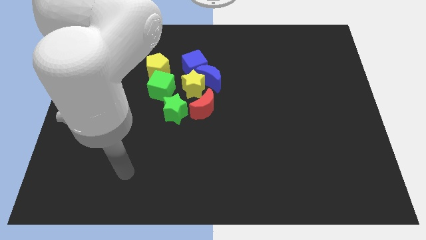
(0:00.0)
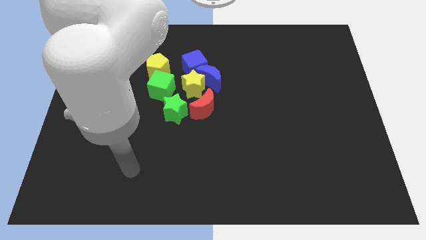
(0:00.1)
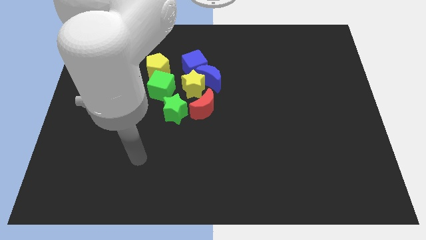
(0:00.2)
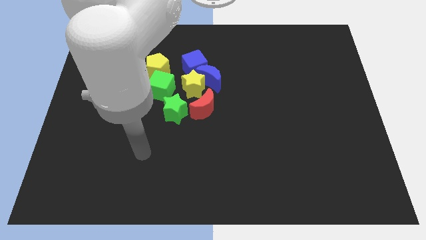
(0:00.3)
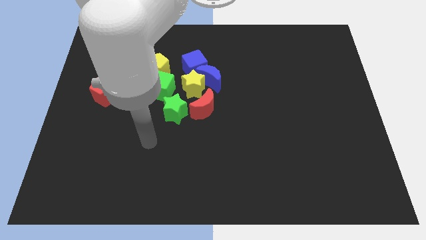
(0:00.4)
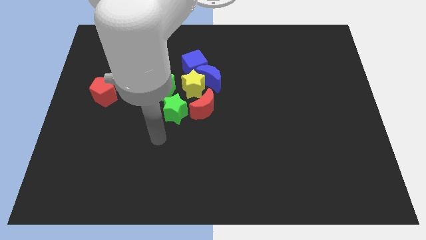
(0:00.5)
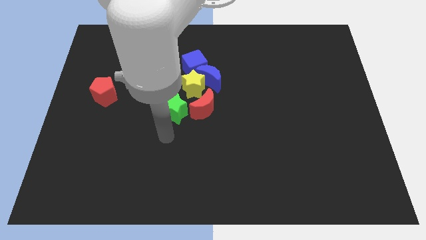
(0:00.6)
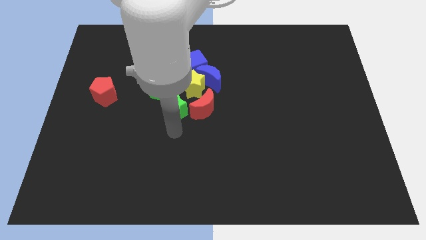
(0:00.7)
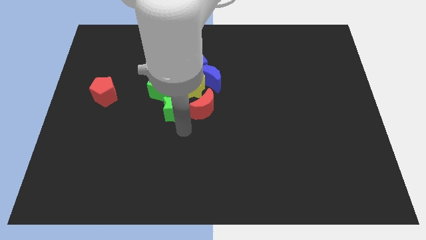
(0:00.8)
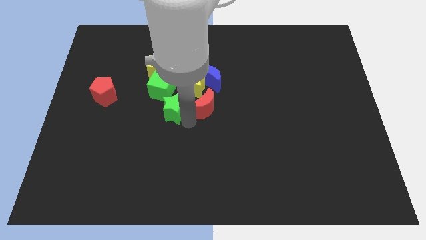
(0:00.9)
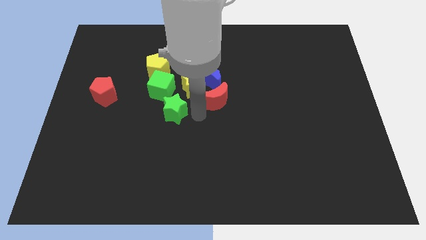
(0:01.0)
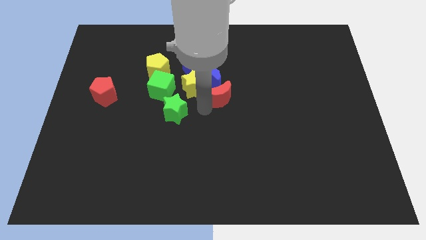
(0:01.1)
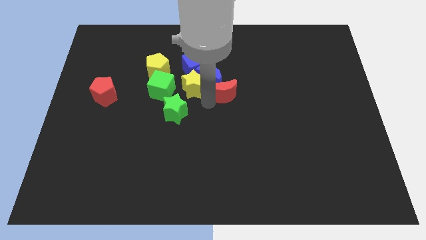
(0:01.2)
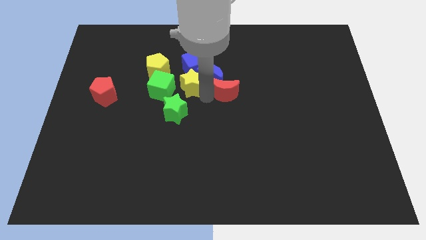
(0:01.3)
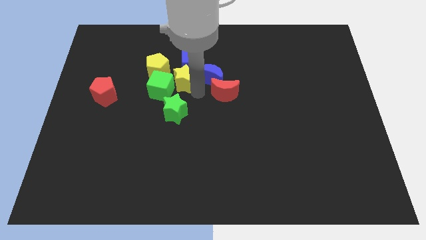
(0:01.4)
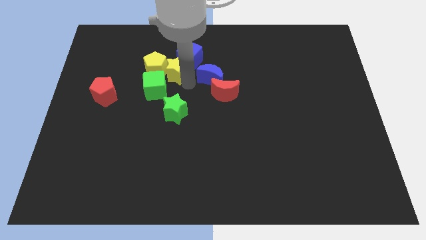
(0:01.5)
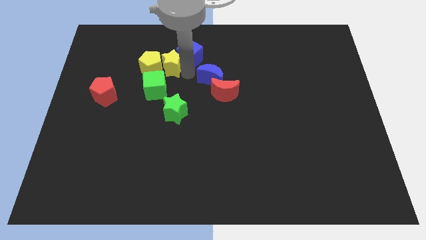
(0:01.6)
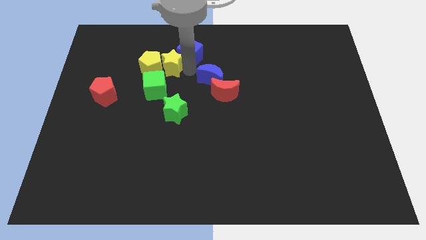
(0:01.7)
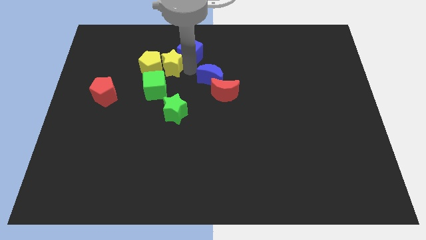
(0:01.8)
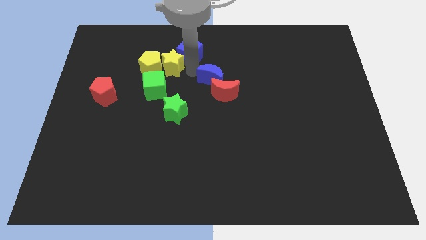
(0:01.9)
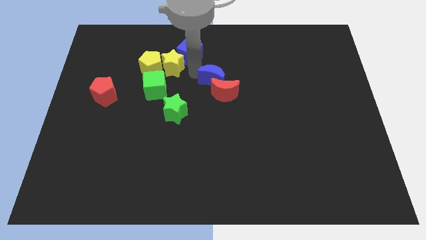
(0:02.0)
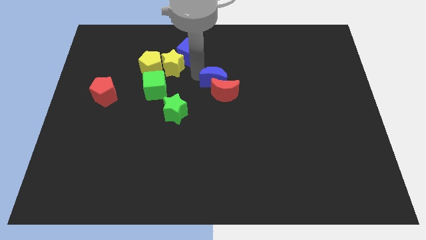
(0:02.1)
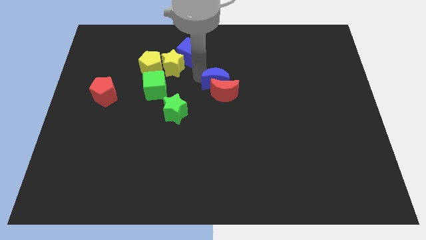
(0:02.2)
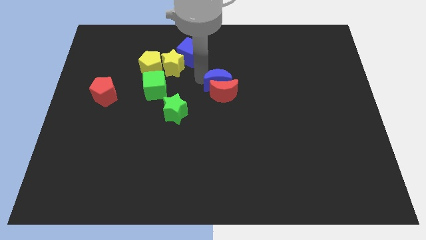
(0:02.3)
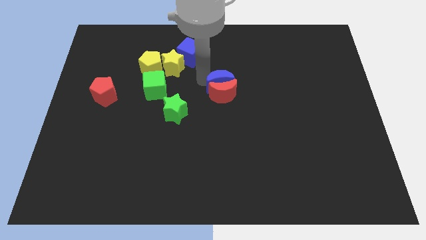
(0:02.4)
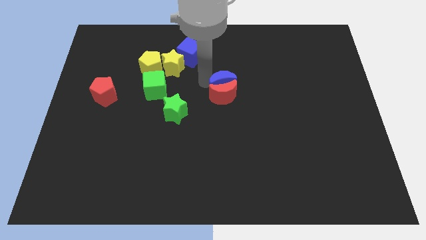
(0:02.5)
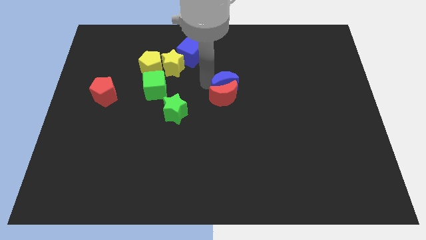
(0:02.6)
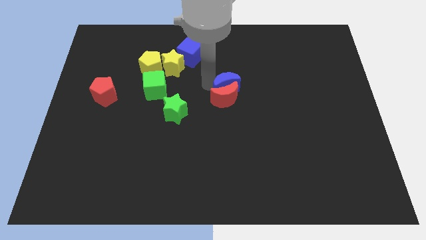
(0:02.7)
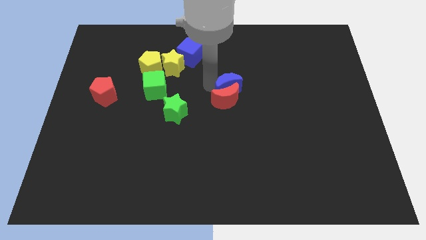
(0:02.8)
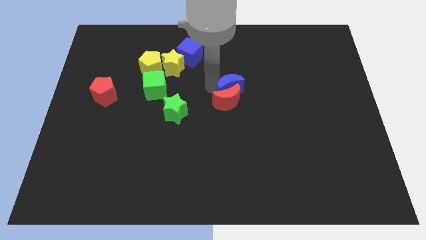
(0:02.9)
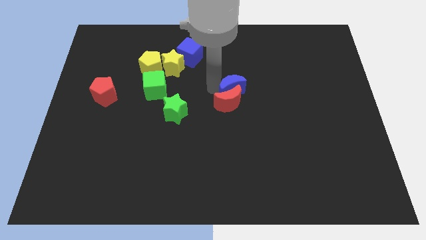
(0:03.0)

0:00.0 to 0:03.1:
separate the blue moon from the yellow star, blue cube, and red moon

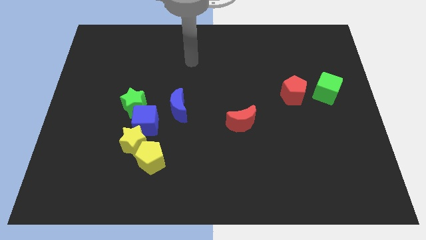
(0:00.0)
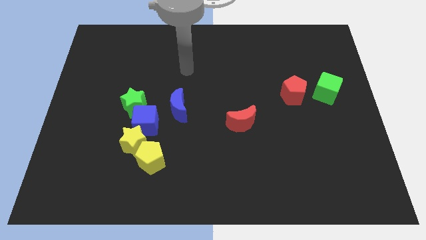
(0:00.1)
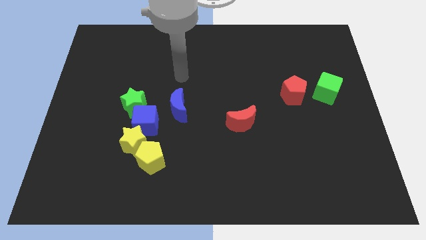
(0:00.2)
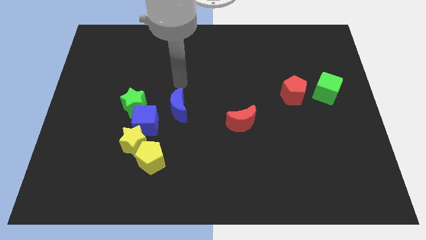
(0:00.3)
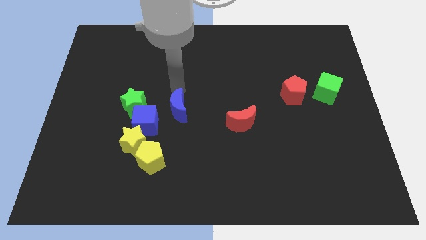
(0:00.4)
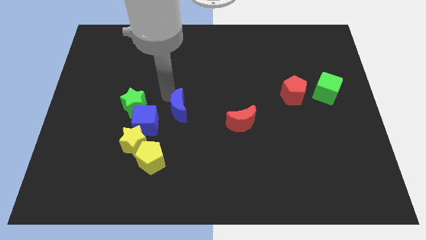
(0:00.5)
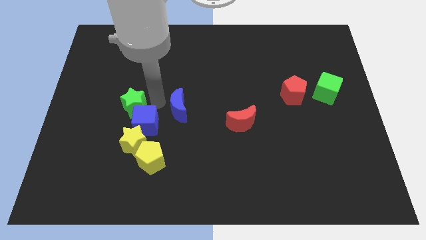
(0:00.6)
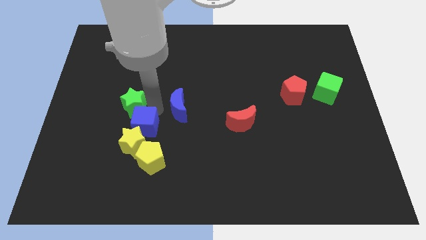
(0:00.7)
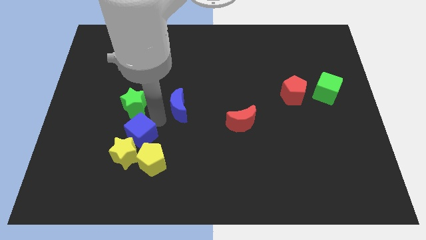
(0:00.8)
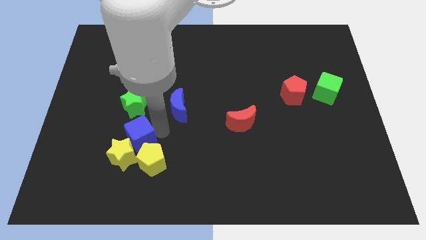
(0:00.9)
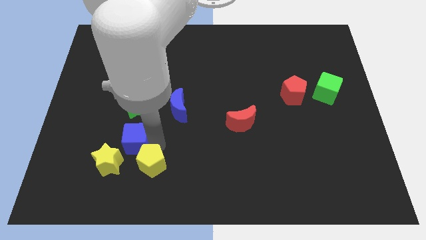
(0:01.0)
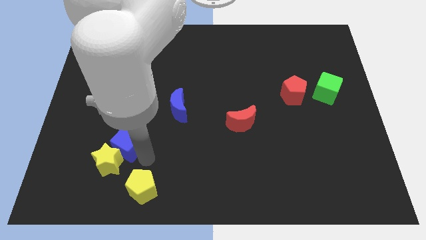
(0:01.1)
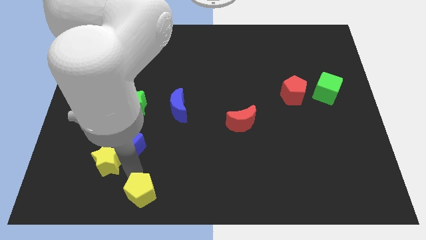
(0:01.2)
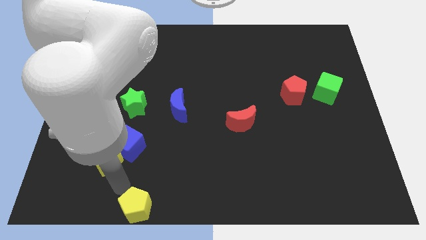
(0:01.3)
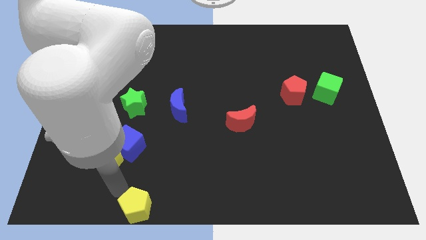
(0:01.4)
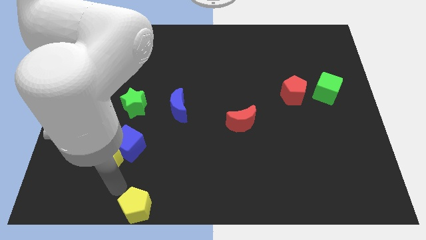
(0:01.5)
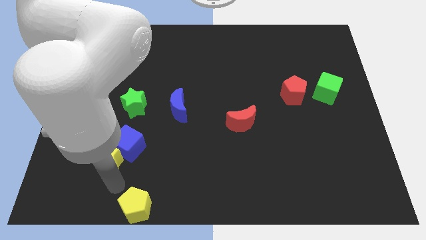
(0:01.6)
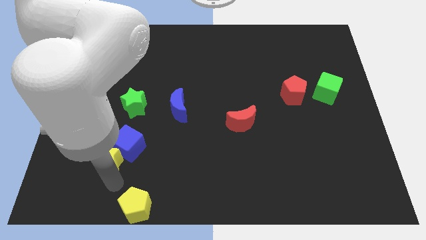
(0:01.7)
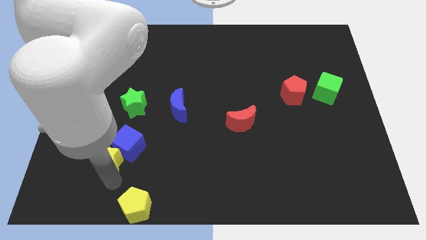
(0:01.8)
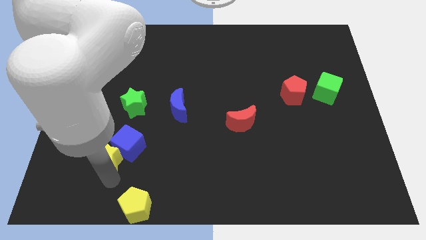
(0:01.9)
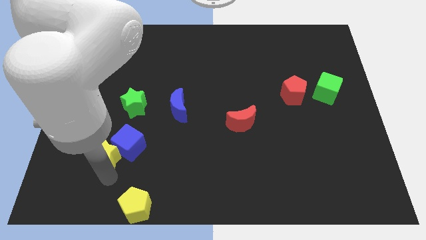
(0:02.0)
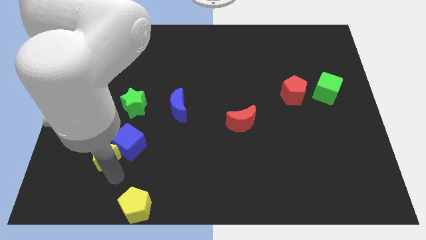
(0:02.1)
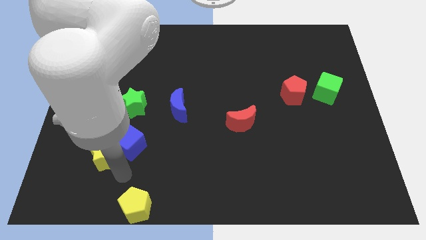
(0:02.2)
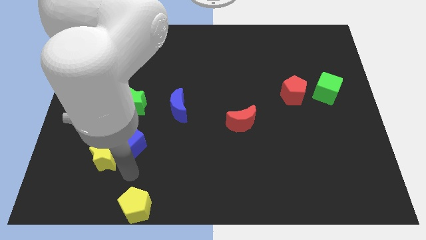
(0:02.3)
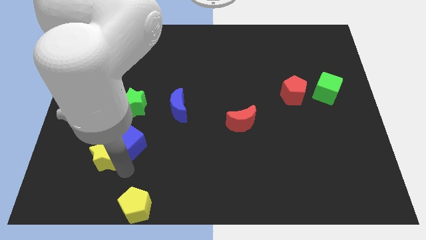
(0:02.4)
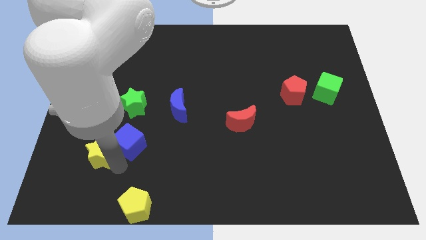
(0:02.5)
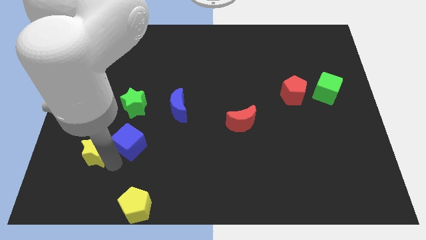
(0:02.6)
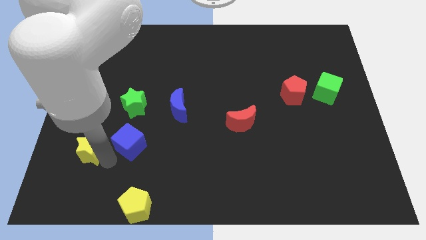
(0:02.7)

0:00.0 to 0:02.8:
pull the yellow star apart from the yellow pentagon and blue cube

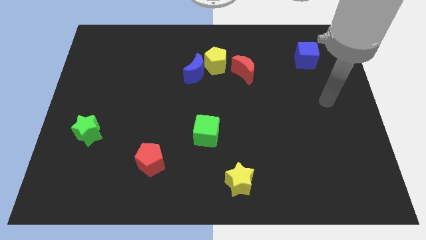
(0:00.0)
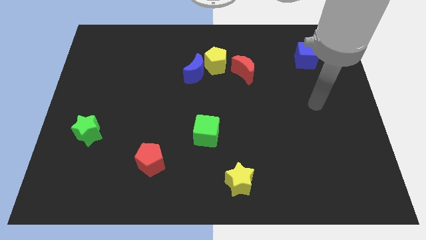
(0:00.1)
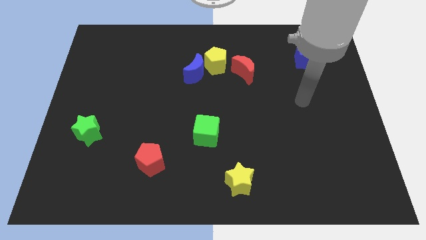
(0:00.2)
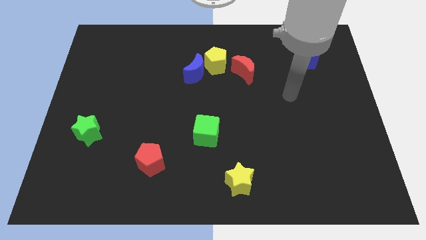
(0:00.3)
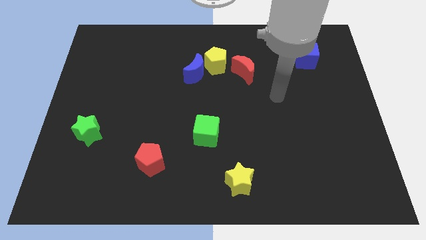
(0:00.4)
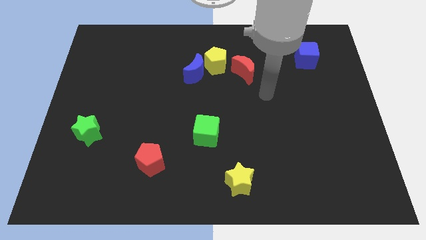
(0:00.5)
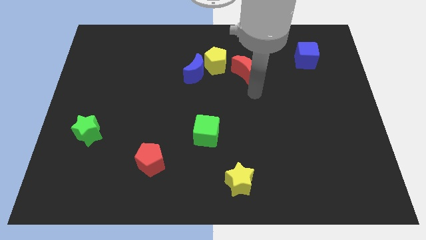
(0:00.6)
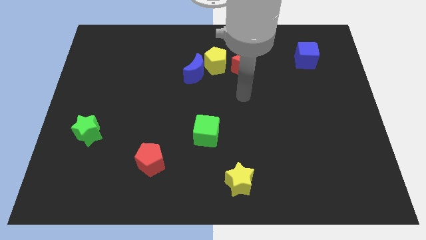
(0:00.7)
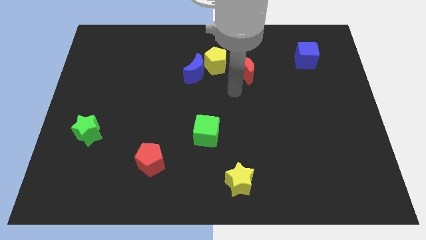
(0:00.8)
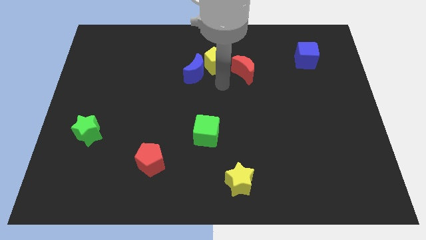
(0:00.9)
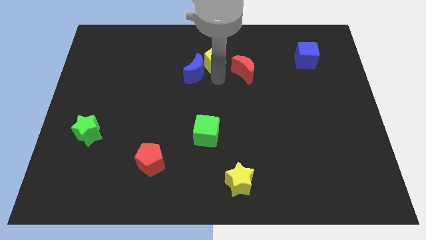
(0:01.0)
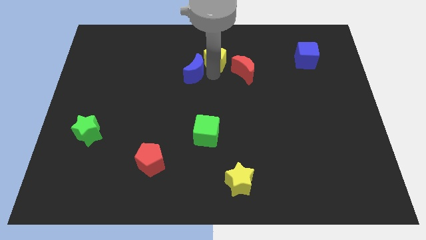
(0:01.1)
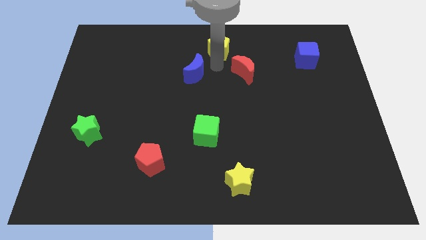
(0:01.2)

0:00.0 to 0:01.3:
separate the blue moon from the yellow pentagon

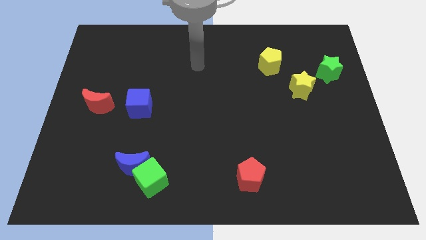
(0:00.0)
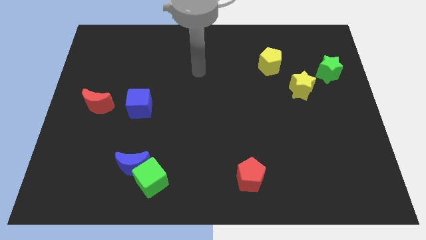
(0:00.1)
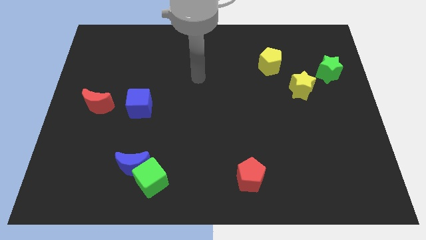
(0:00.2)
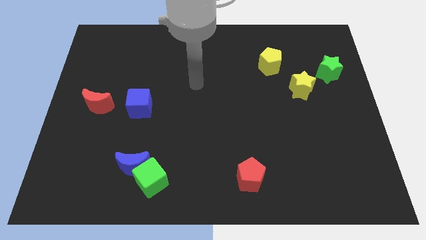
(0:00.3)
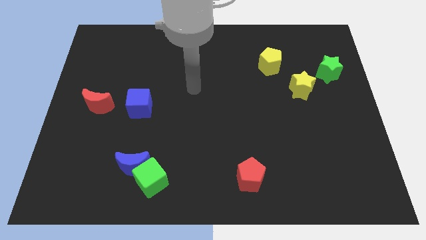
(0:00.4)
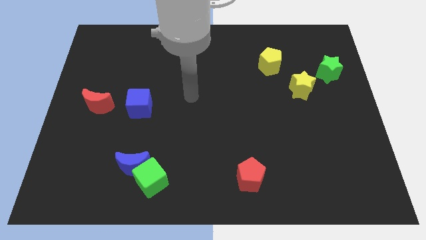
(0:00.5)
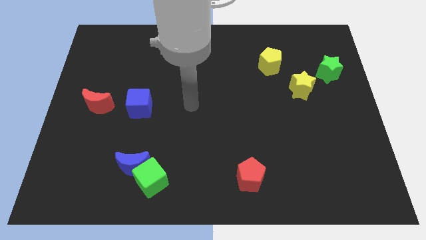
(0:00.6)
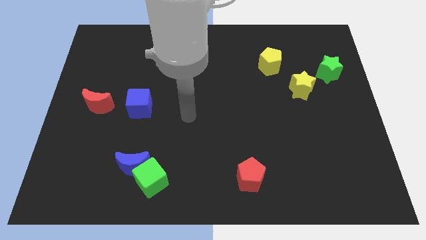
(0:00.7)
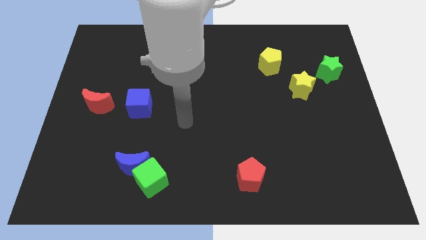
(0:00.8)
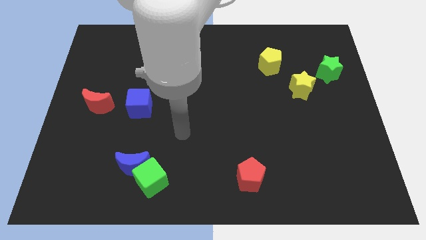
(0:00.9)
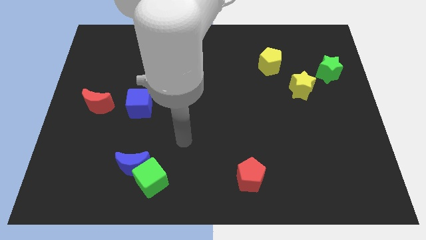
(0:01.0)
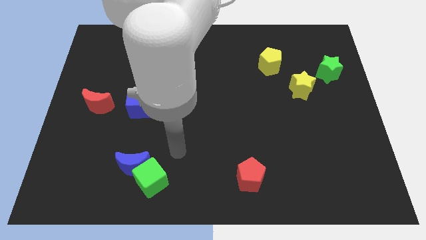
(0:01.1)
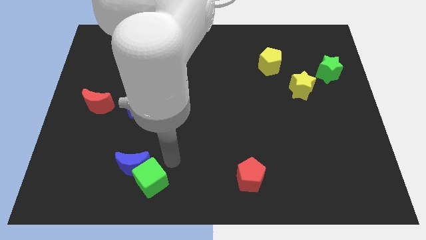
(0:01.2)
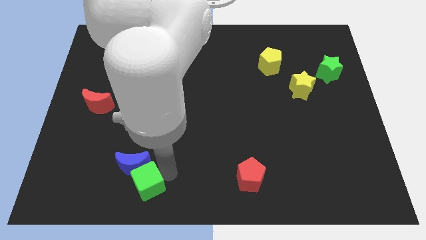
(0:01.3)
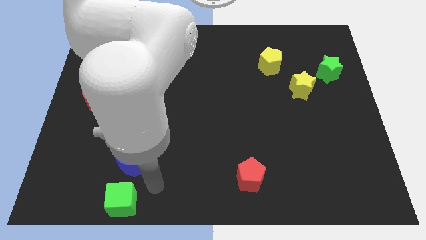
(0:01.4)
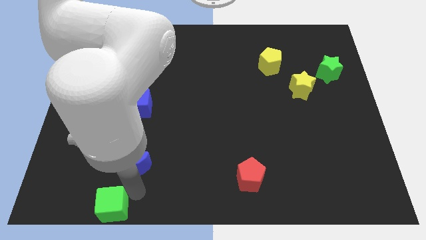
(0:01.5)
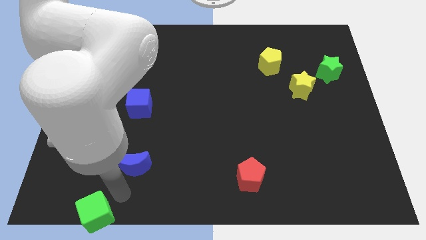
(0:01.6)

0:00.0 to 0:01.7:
separate the blue moon from the green cube

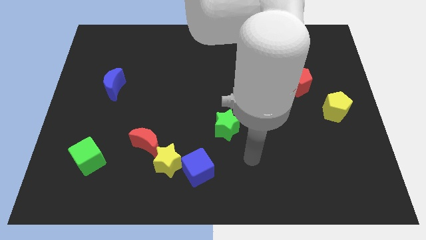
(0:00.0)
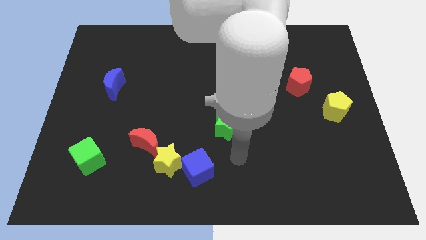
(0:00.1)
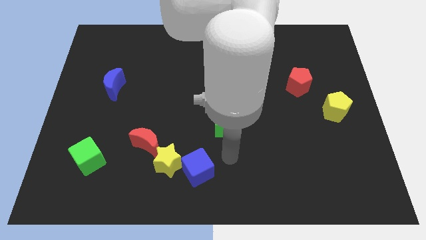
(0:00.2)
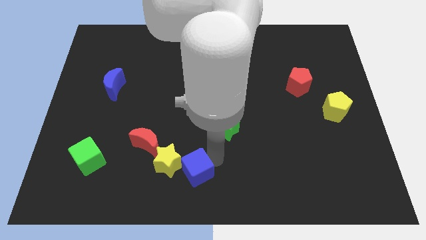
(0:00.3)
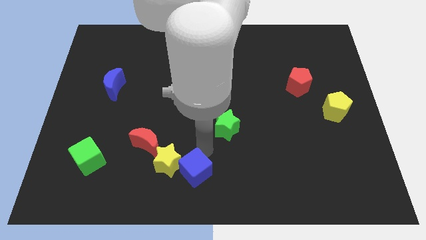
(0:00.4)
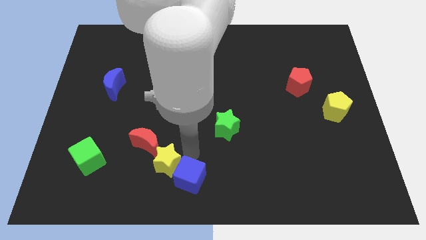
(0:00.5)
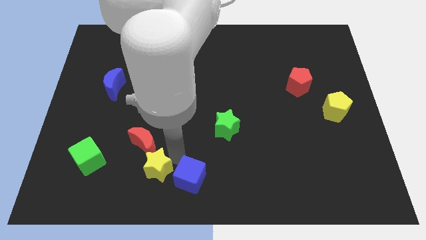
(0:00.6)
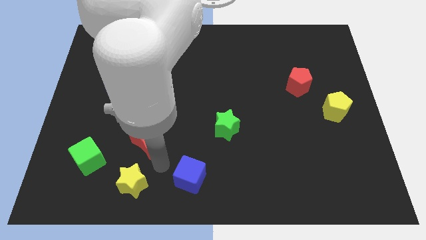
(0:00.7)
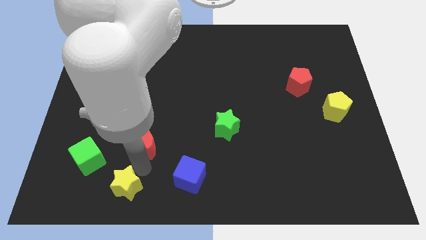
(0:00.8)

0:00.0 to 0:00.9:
separate the red moon from the yellow star
